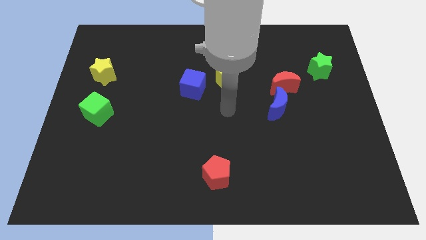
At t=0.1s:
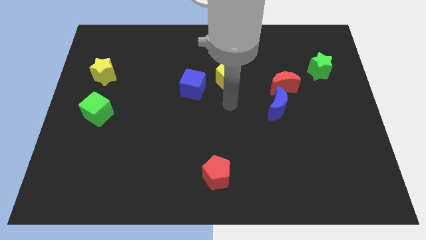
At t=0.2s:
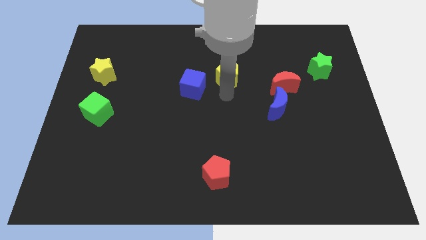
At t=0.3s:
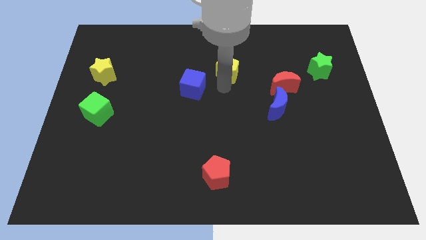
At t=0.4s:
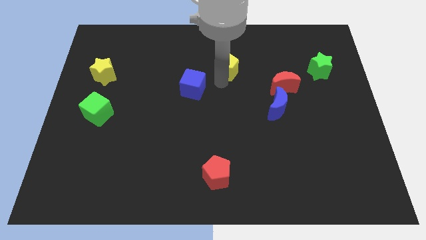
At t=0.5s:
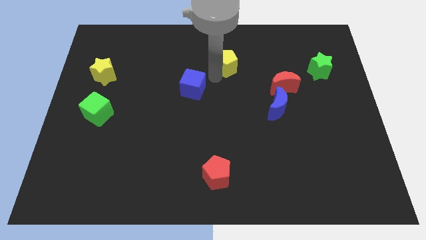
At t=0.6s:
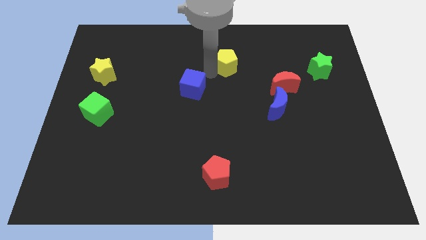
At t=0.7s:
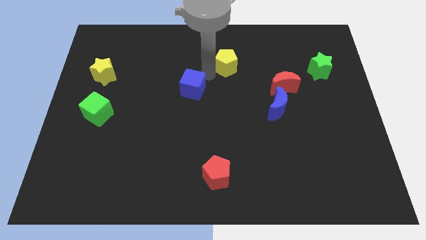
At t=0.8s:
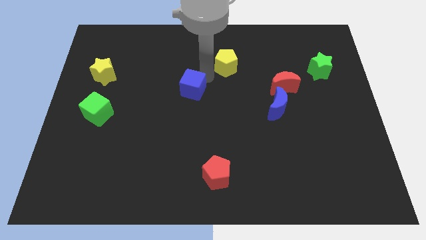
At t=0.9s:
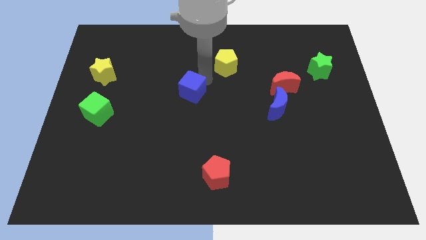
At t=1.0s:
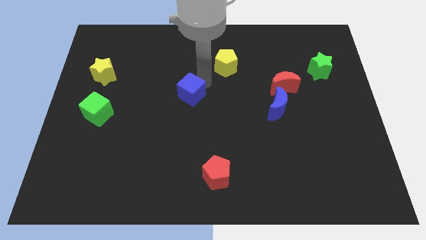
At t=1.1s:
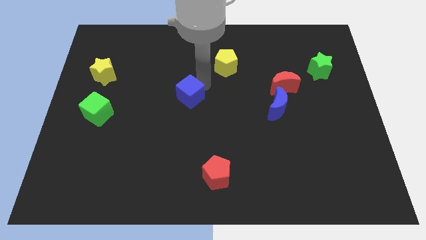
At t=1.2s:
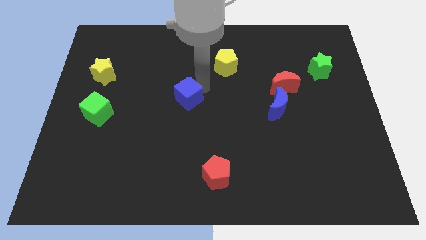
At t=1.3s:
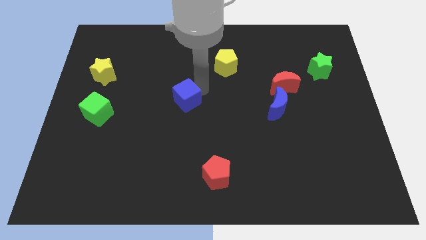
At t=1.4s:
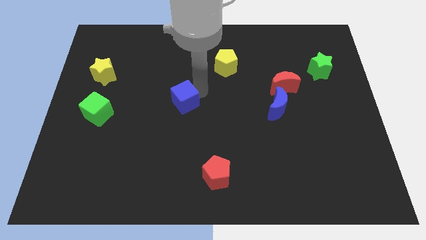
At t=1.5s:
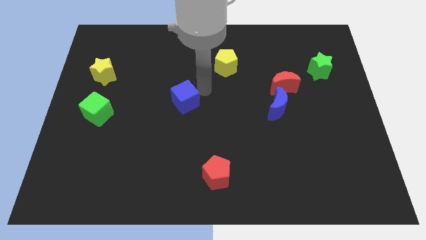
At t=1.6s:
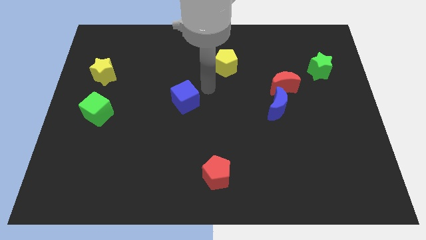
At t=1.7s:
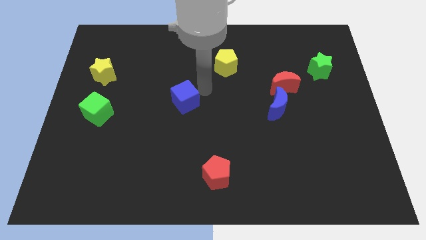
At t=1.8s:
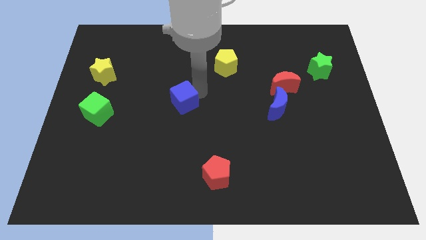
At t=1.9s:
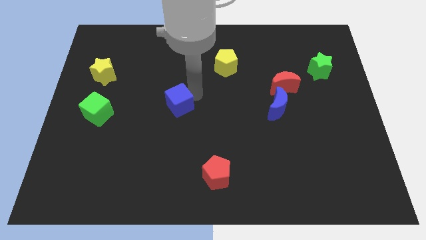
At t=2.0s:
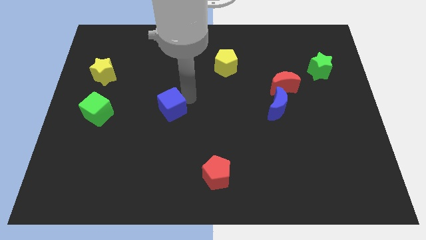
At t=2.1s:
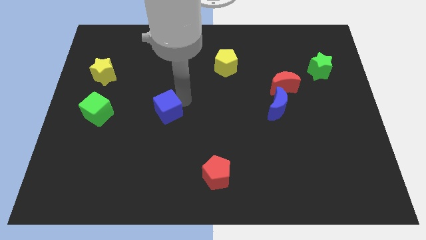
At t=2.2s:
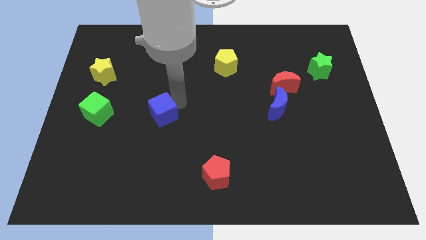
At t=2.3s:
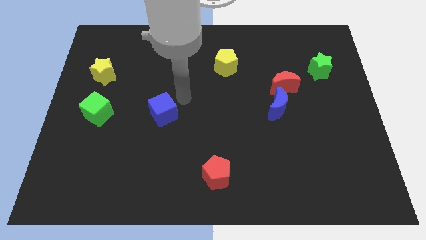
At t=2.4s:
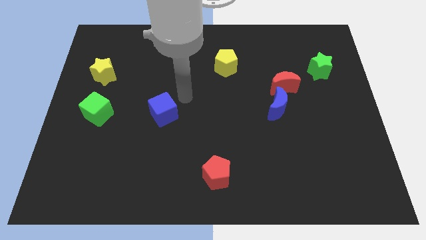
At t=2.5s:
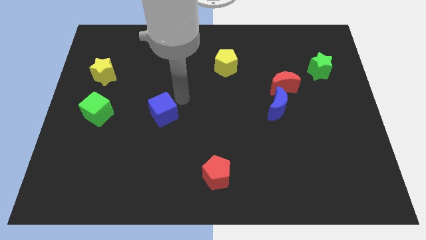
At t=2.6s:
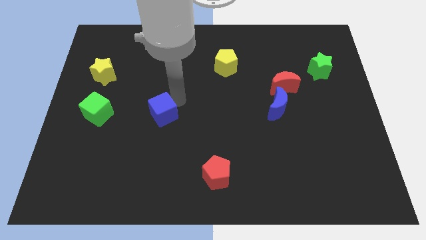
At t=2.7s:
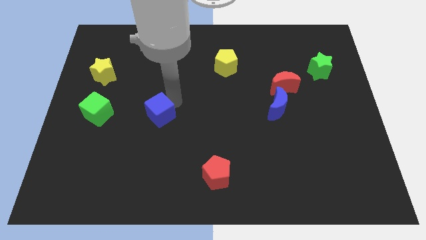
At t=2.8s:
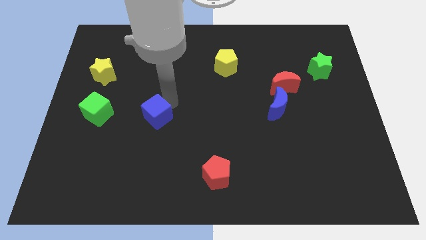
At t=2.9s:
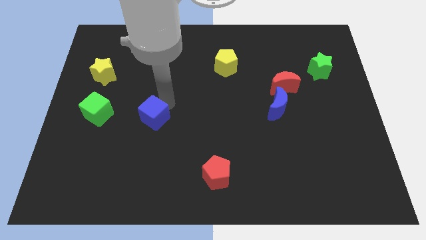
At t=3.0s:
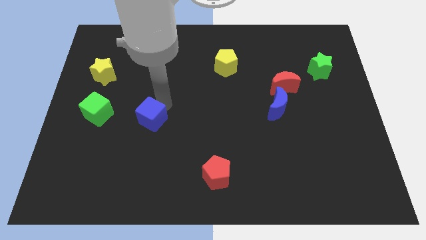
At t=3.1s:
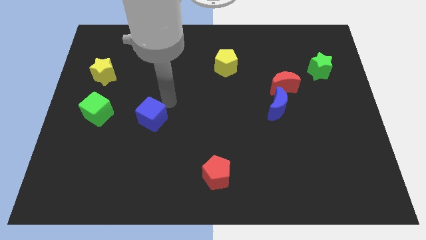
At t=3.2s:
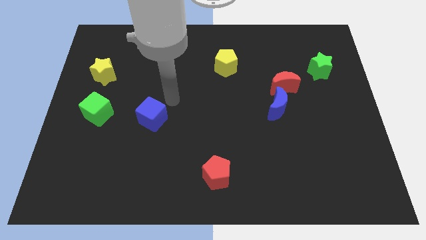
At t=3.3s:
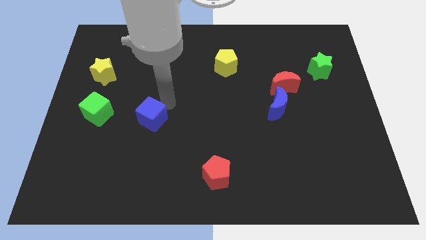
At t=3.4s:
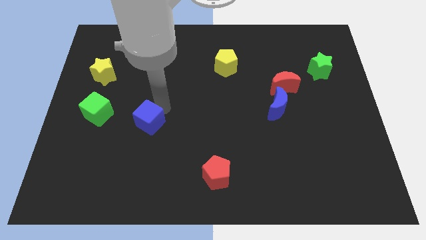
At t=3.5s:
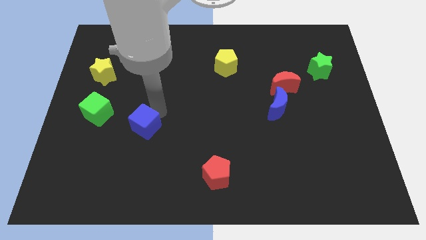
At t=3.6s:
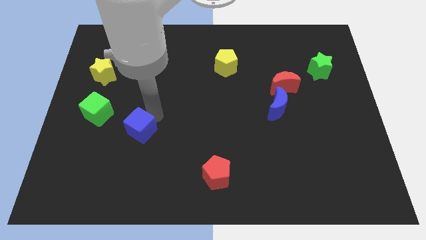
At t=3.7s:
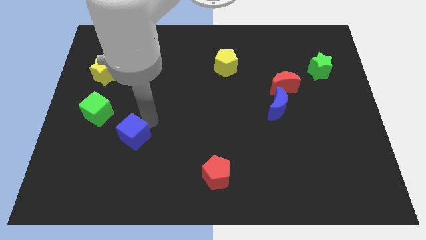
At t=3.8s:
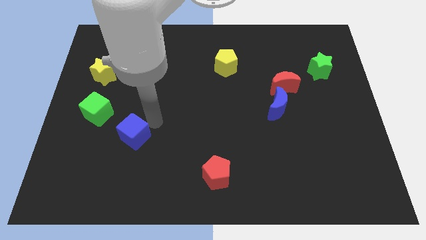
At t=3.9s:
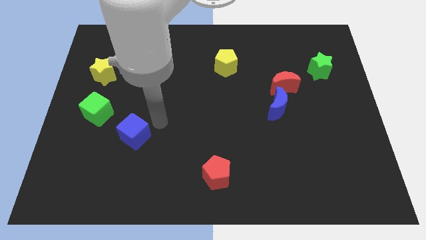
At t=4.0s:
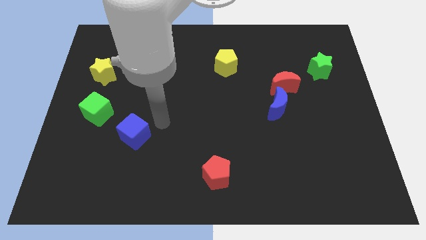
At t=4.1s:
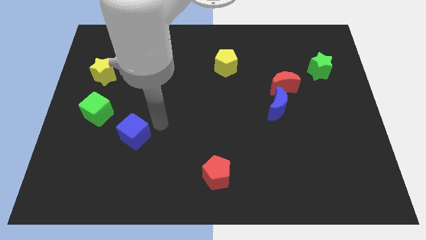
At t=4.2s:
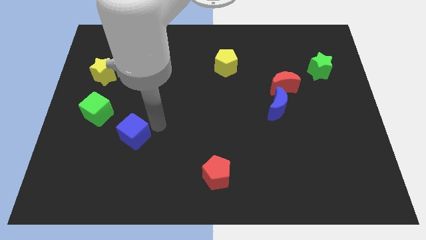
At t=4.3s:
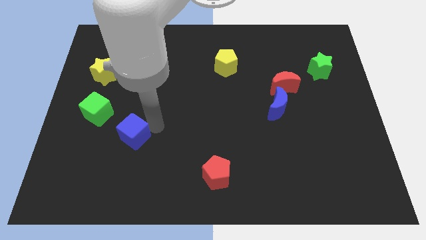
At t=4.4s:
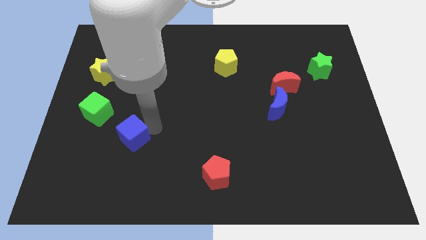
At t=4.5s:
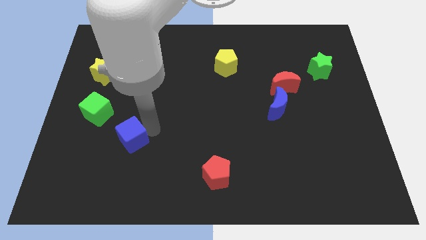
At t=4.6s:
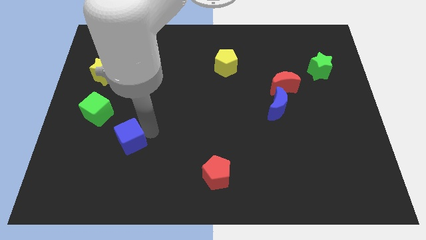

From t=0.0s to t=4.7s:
move the blue cube downwards and then left

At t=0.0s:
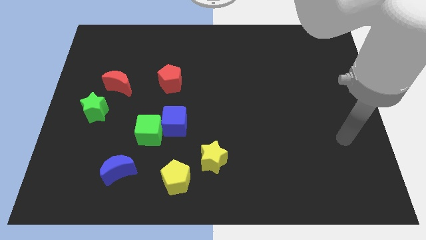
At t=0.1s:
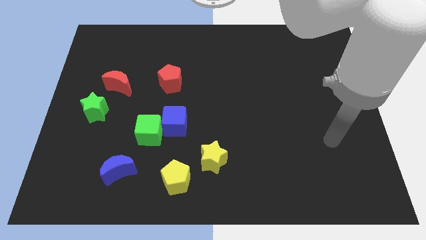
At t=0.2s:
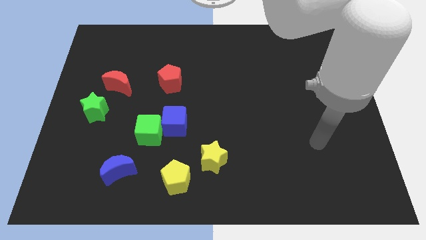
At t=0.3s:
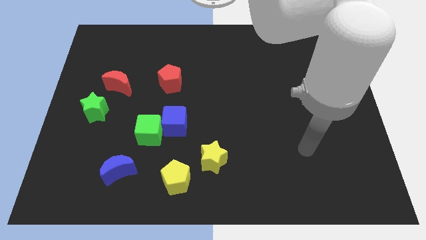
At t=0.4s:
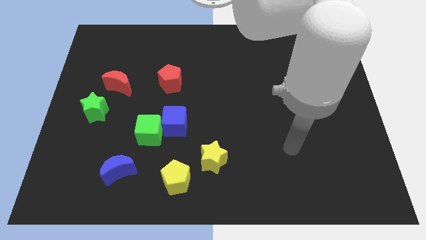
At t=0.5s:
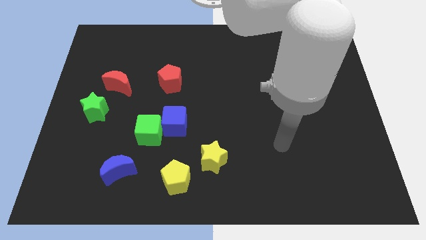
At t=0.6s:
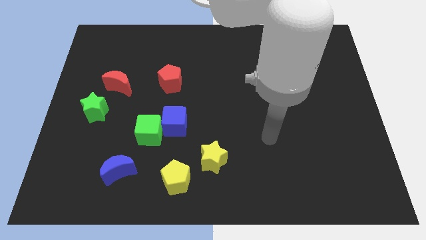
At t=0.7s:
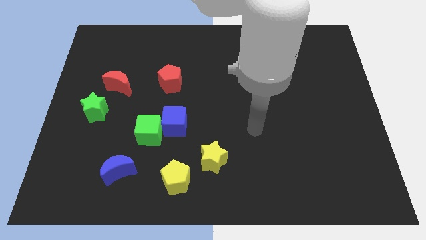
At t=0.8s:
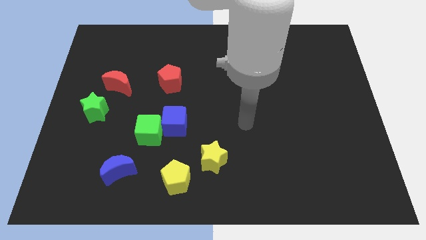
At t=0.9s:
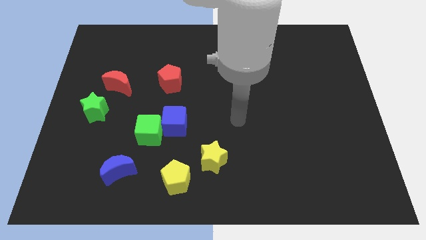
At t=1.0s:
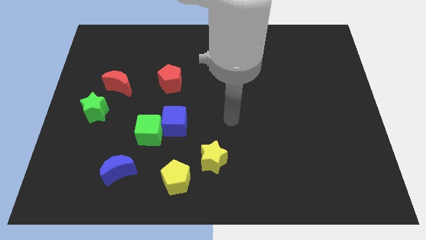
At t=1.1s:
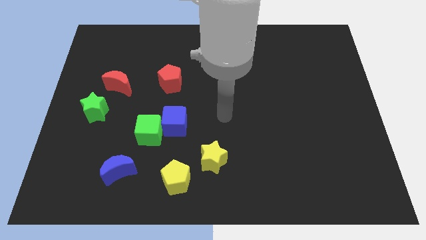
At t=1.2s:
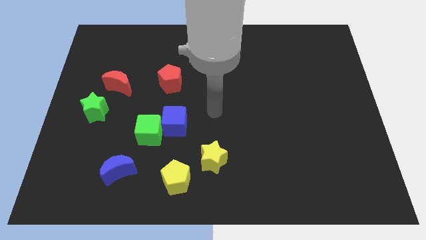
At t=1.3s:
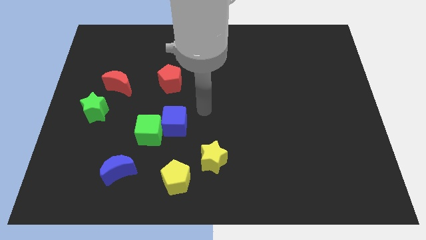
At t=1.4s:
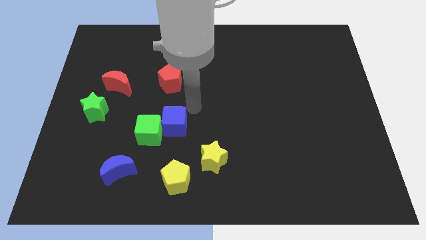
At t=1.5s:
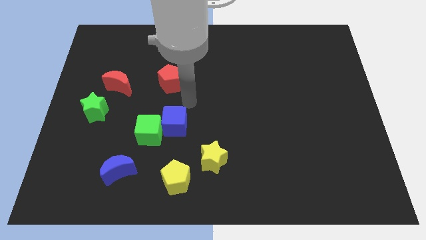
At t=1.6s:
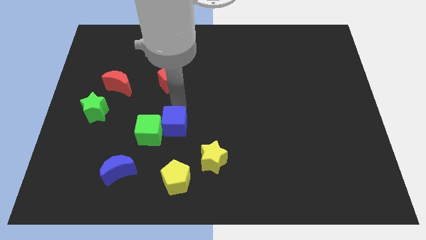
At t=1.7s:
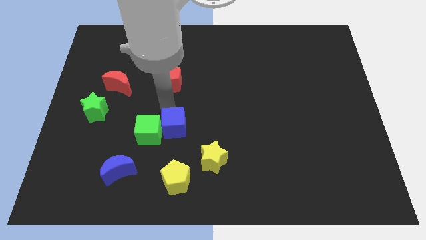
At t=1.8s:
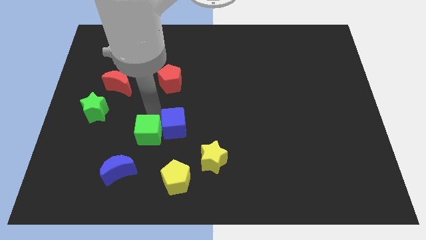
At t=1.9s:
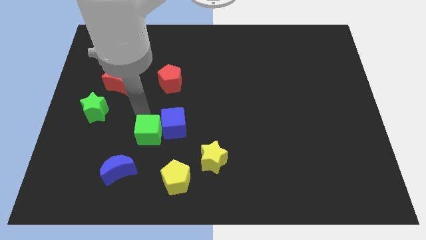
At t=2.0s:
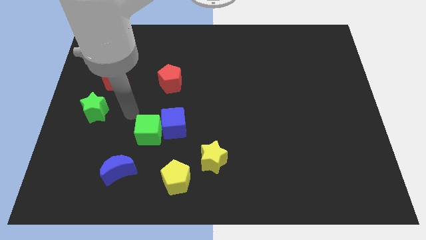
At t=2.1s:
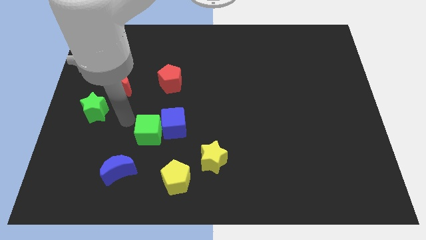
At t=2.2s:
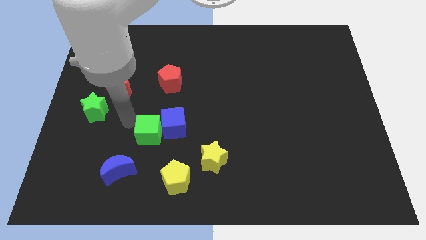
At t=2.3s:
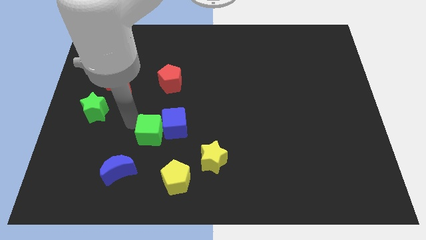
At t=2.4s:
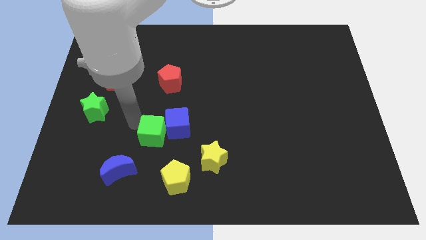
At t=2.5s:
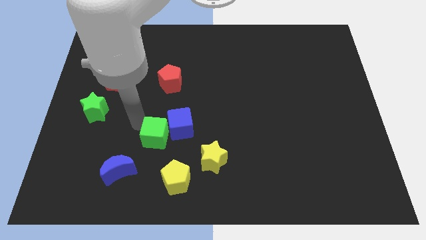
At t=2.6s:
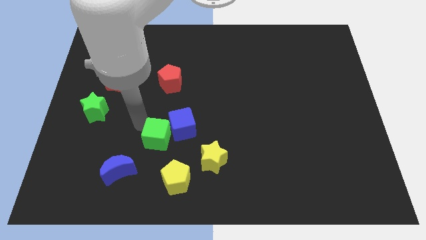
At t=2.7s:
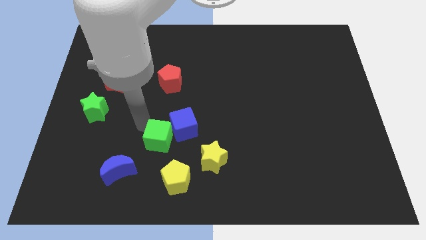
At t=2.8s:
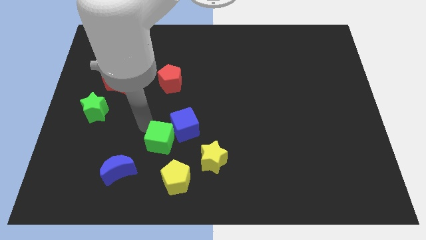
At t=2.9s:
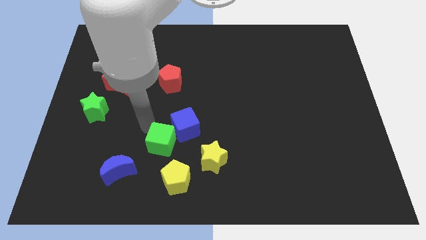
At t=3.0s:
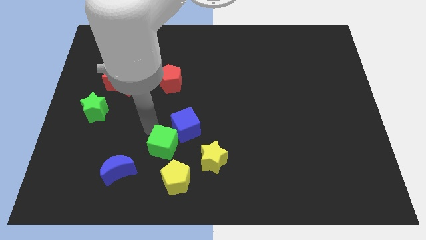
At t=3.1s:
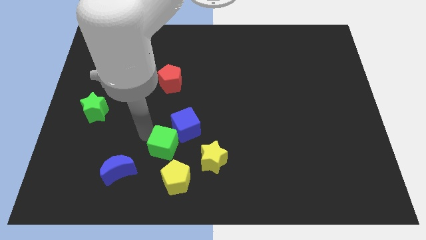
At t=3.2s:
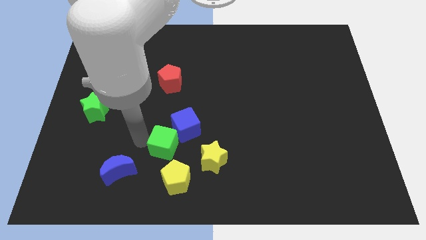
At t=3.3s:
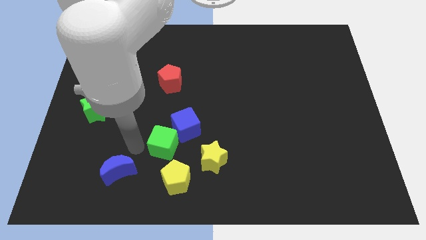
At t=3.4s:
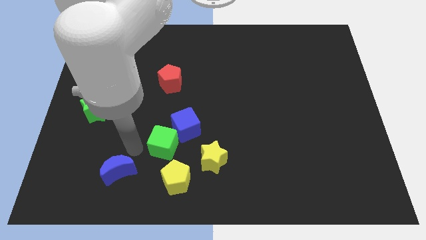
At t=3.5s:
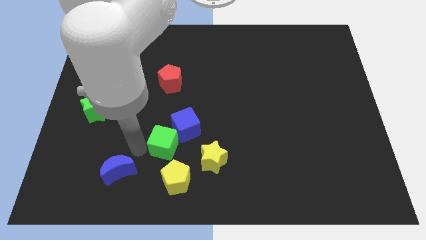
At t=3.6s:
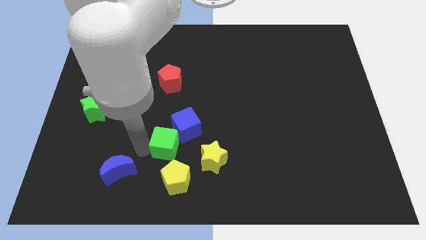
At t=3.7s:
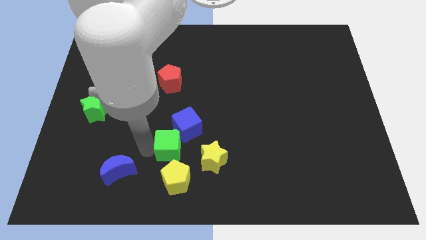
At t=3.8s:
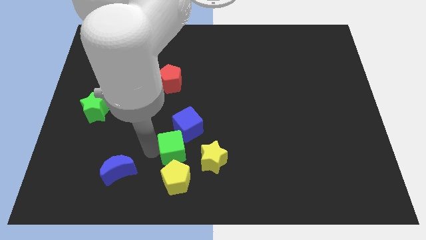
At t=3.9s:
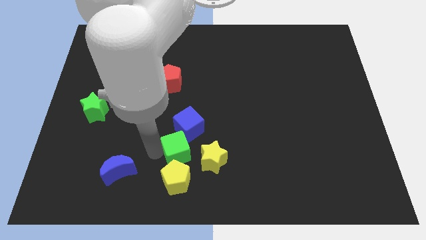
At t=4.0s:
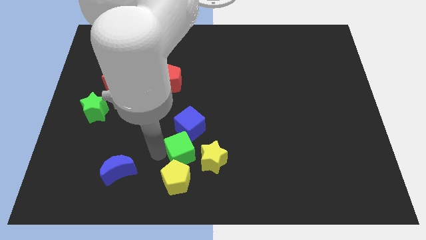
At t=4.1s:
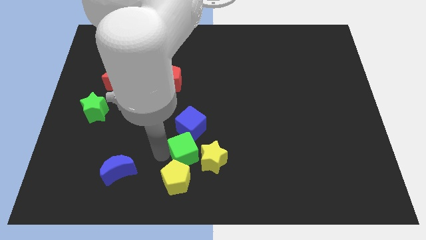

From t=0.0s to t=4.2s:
slide the green cube somewhat to the right
